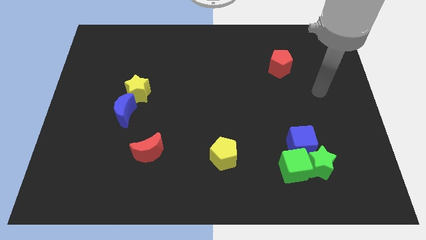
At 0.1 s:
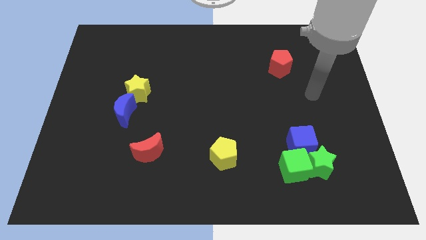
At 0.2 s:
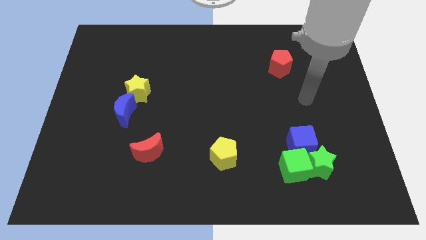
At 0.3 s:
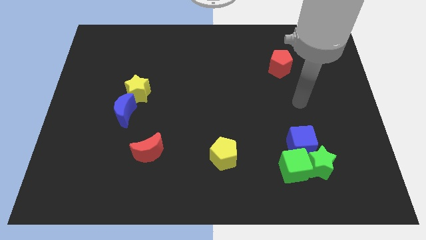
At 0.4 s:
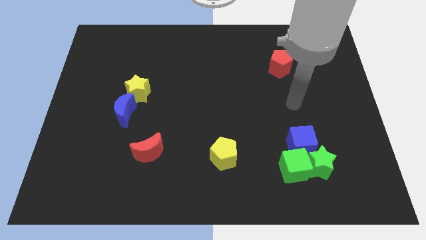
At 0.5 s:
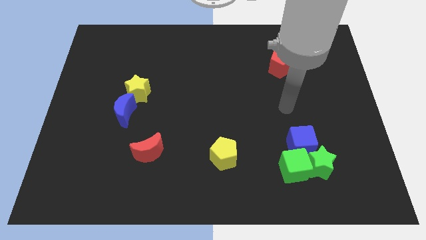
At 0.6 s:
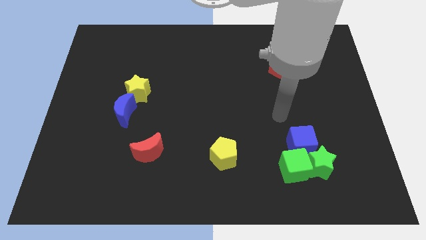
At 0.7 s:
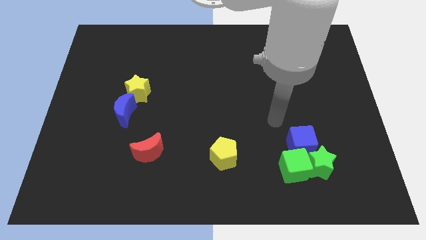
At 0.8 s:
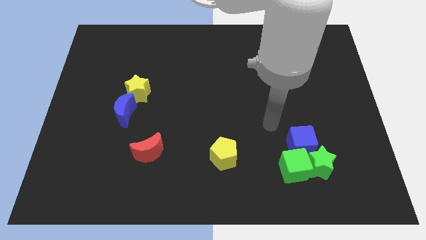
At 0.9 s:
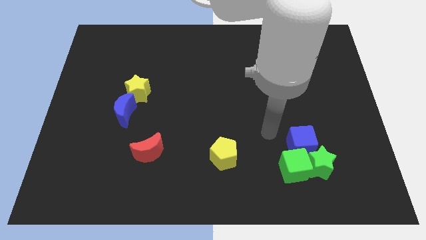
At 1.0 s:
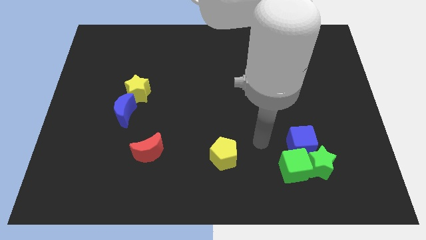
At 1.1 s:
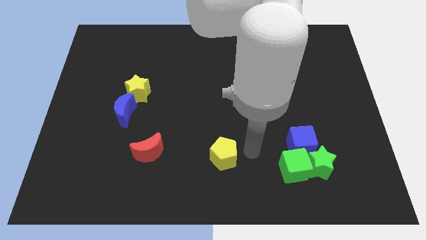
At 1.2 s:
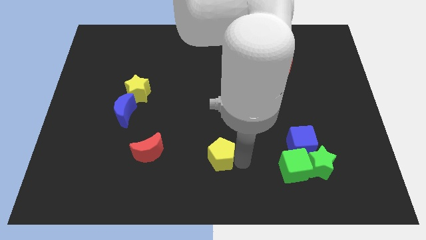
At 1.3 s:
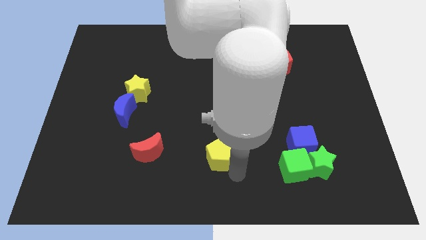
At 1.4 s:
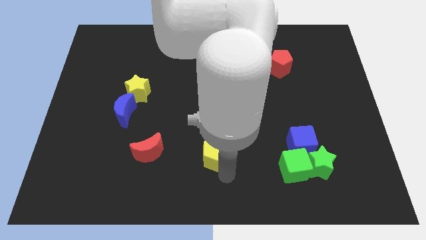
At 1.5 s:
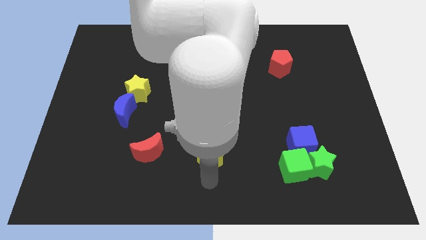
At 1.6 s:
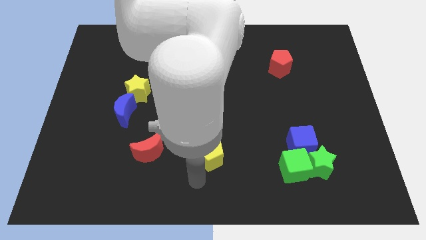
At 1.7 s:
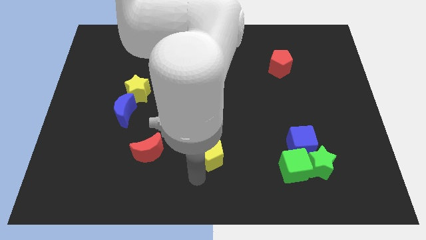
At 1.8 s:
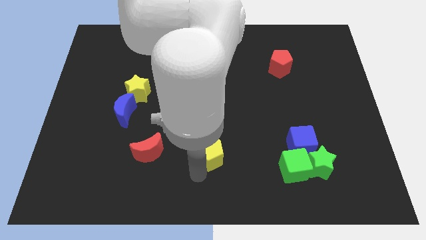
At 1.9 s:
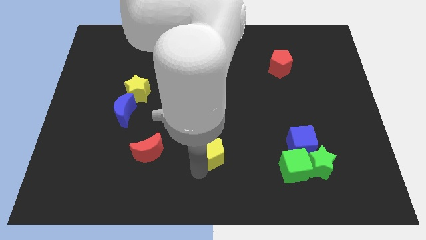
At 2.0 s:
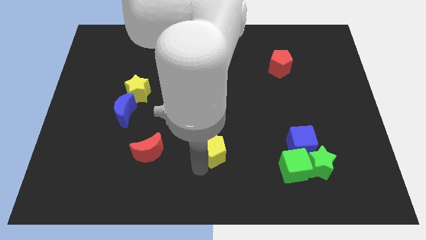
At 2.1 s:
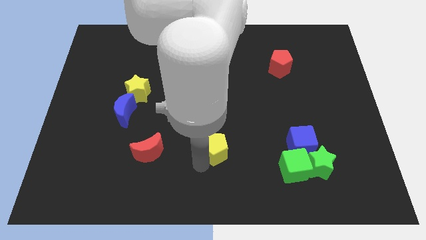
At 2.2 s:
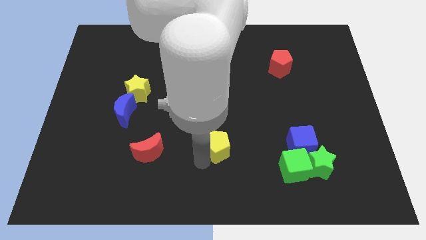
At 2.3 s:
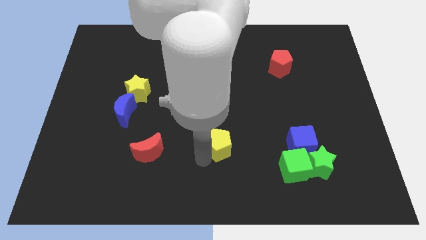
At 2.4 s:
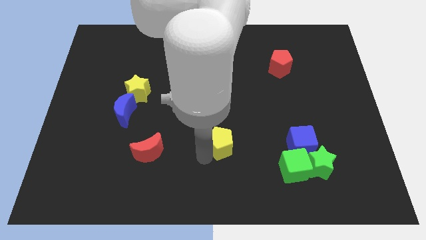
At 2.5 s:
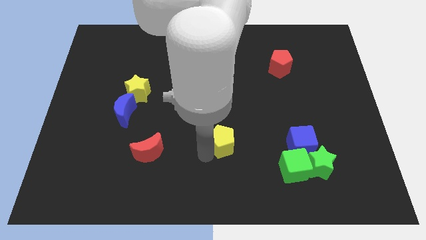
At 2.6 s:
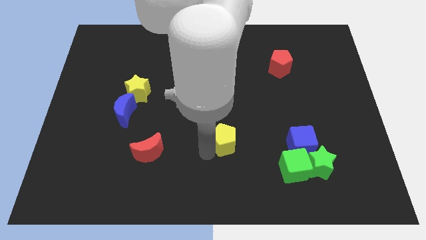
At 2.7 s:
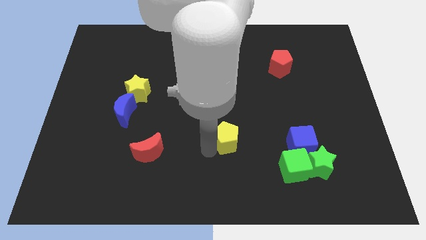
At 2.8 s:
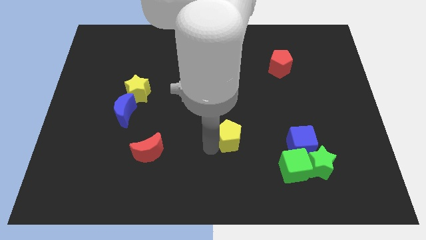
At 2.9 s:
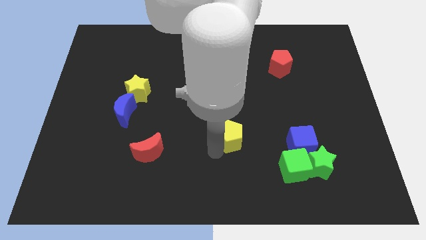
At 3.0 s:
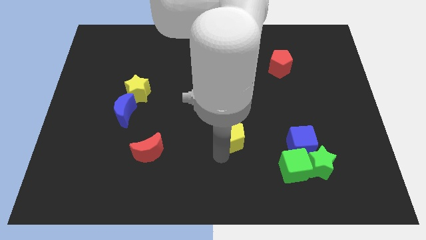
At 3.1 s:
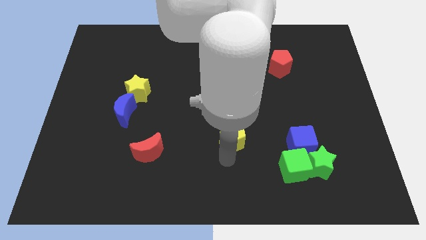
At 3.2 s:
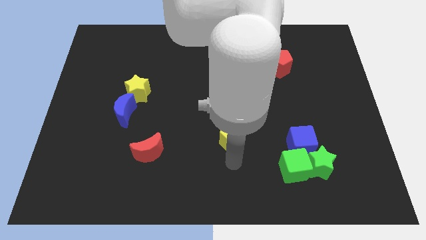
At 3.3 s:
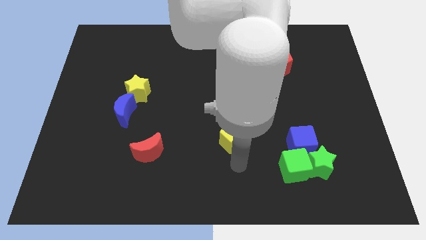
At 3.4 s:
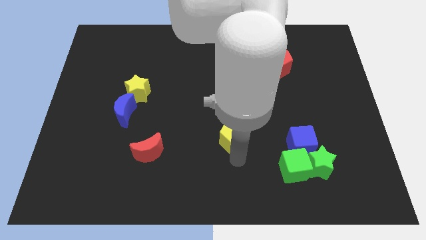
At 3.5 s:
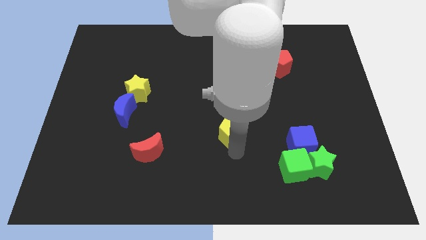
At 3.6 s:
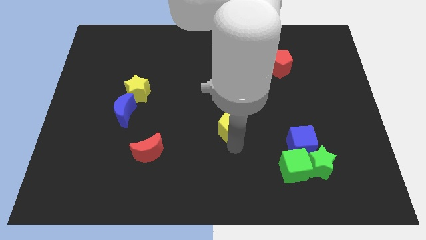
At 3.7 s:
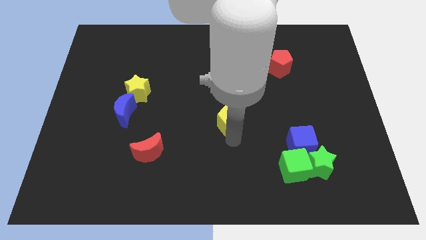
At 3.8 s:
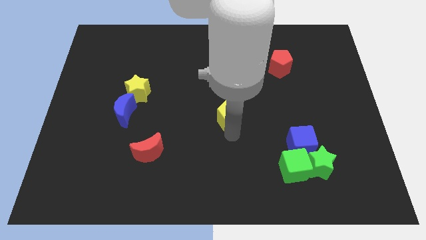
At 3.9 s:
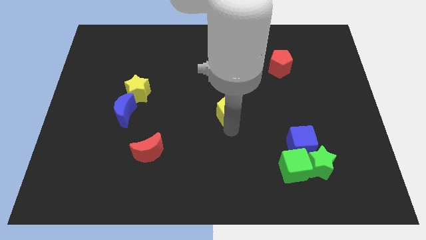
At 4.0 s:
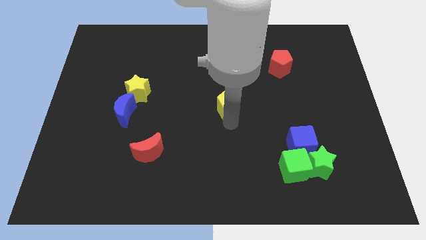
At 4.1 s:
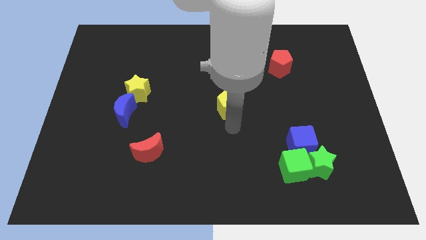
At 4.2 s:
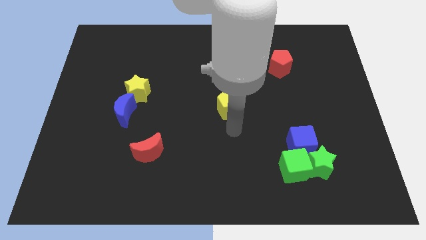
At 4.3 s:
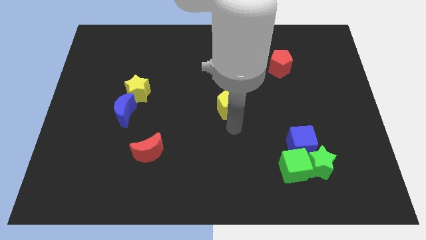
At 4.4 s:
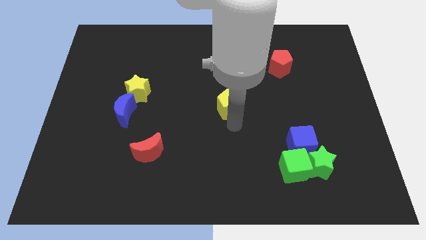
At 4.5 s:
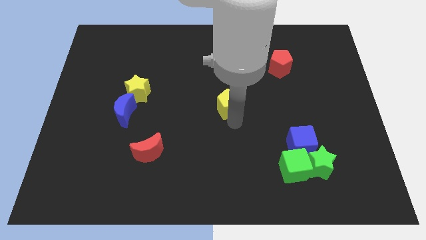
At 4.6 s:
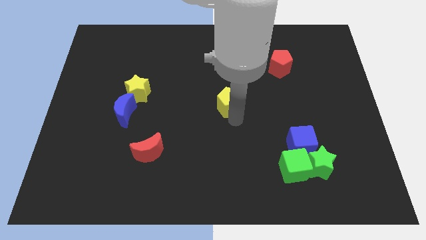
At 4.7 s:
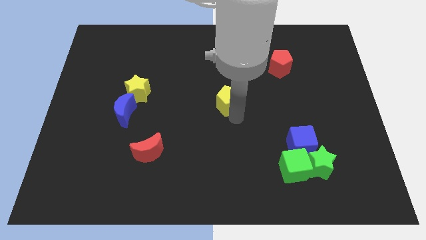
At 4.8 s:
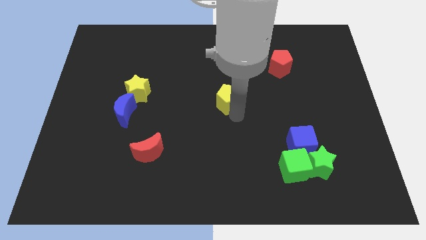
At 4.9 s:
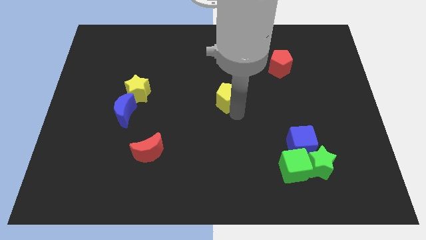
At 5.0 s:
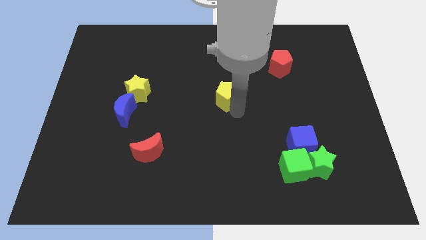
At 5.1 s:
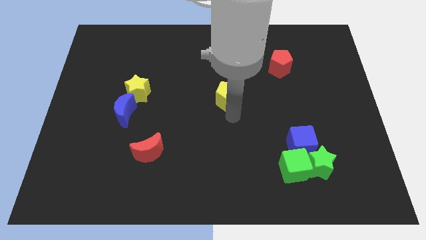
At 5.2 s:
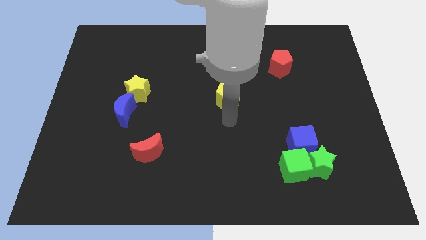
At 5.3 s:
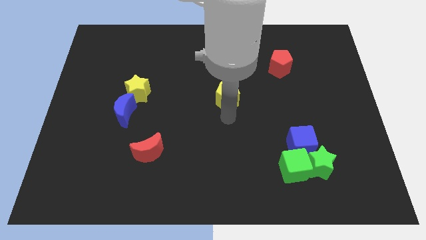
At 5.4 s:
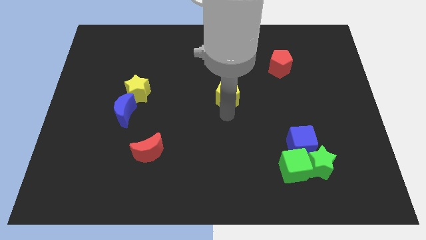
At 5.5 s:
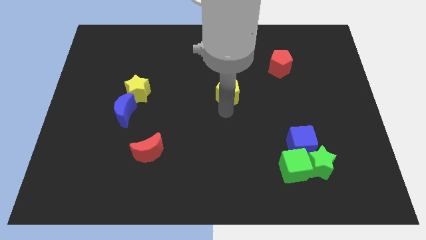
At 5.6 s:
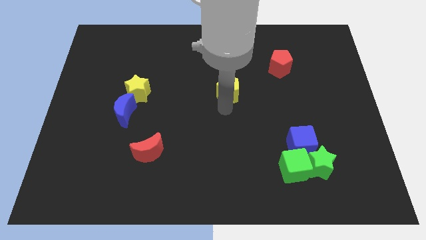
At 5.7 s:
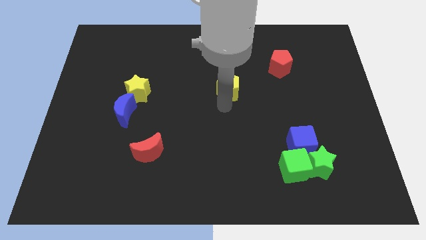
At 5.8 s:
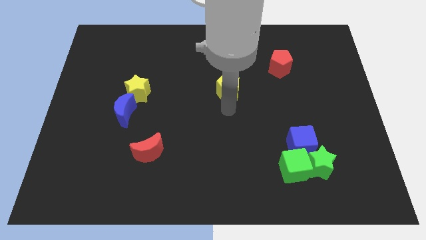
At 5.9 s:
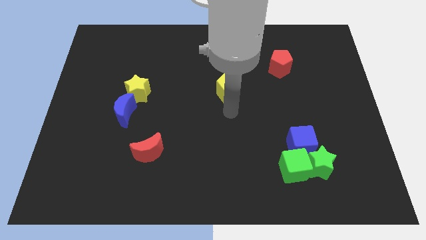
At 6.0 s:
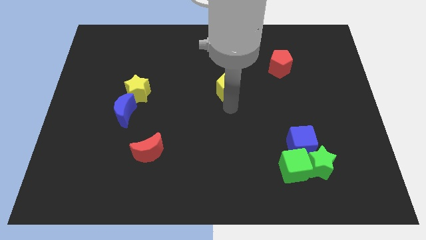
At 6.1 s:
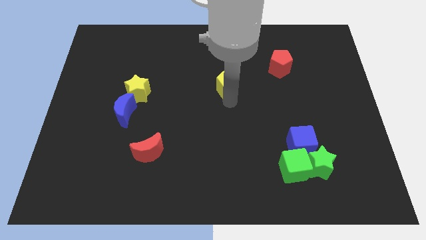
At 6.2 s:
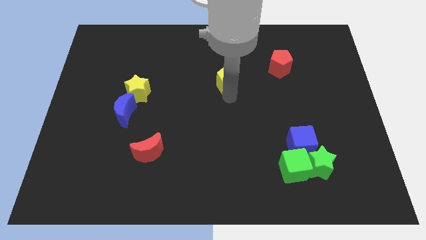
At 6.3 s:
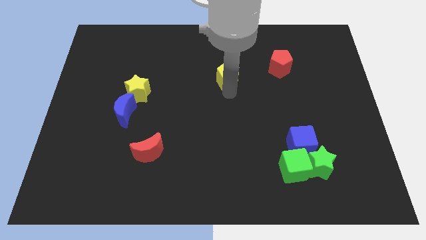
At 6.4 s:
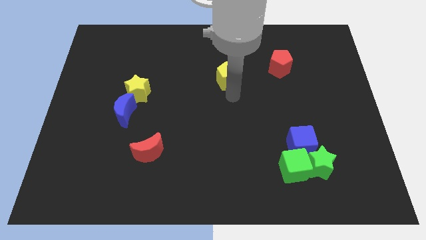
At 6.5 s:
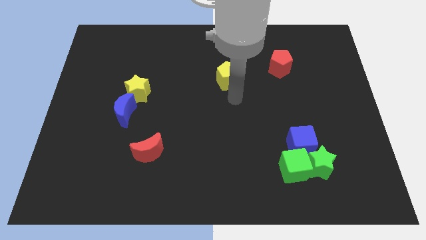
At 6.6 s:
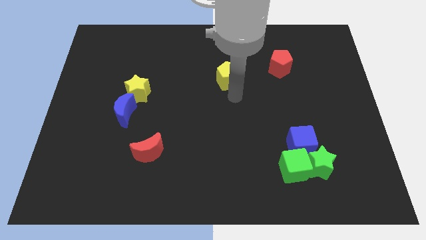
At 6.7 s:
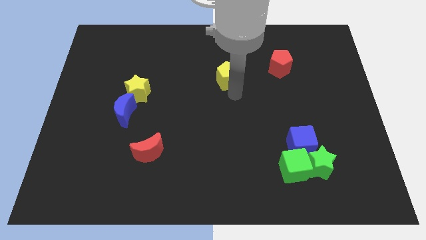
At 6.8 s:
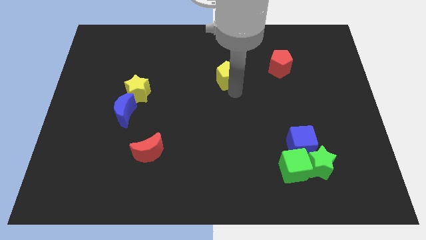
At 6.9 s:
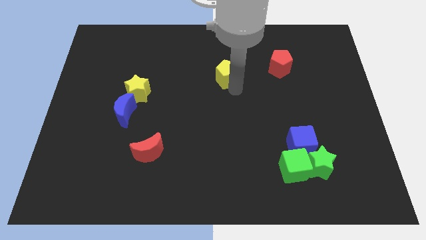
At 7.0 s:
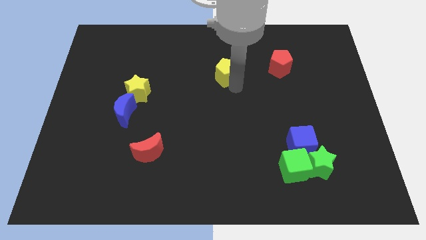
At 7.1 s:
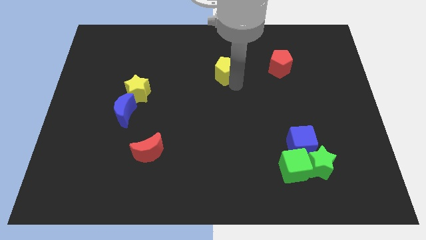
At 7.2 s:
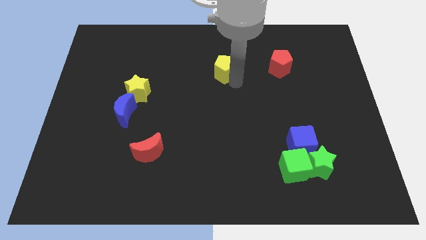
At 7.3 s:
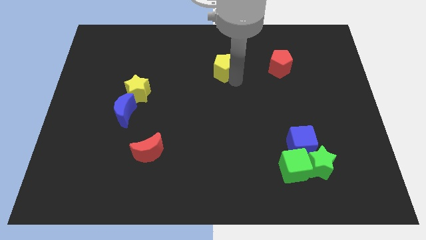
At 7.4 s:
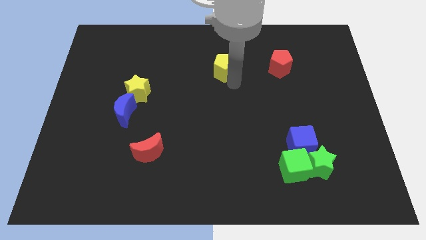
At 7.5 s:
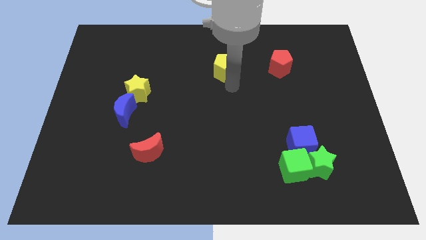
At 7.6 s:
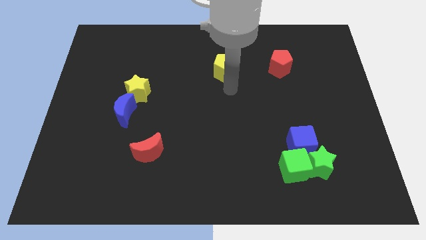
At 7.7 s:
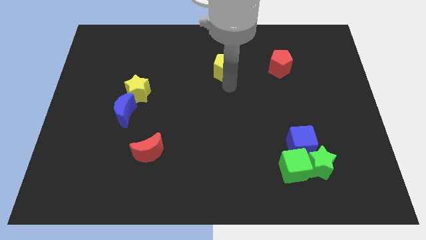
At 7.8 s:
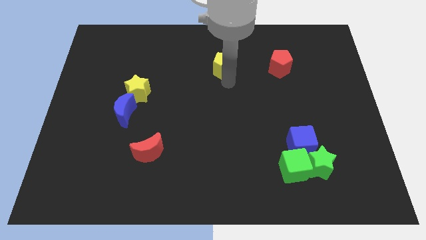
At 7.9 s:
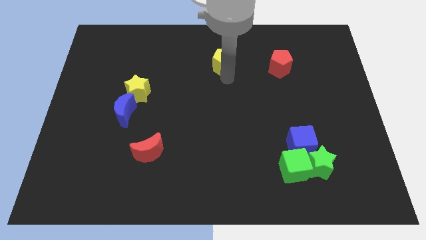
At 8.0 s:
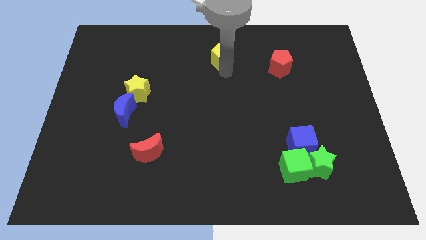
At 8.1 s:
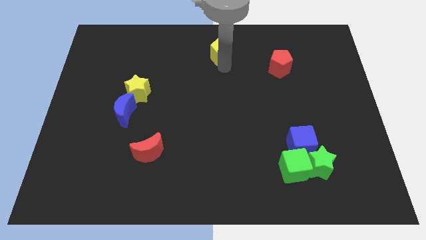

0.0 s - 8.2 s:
put the yellow pentagon to the top
